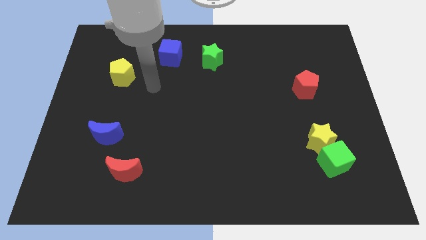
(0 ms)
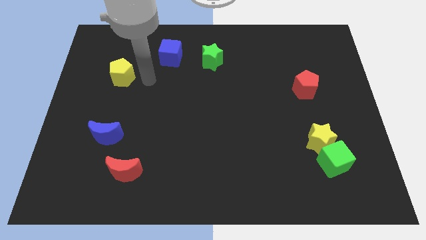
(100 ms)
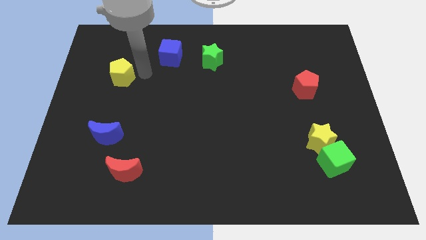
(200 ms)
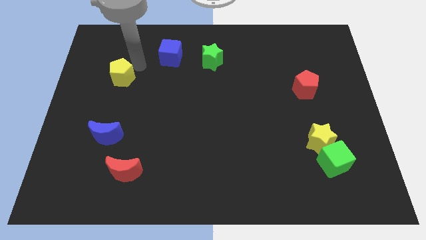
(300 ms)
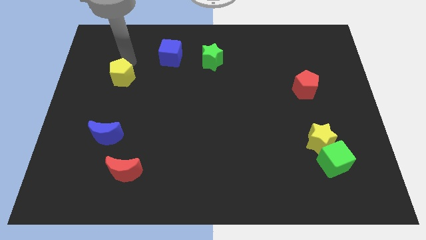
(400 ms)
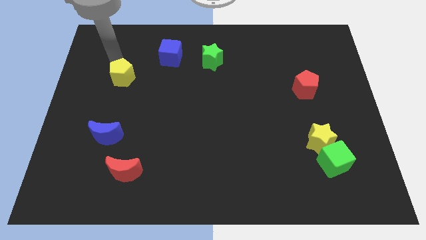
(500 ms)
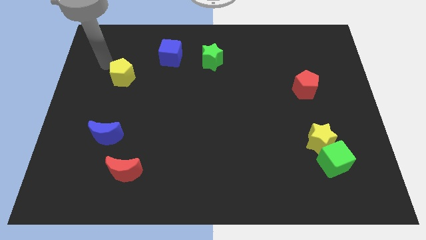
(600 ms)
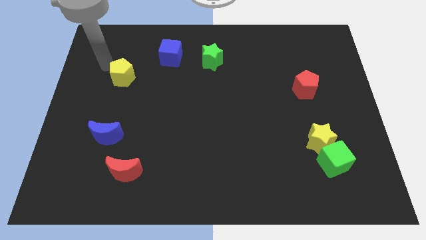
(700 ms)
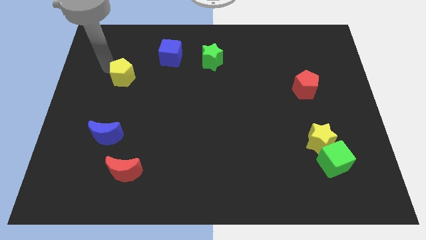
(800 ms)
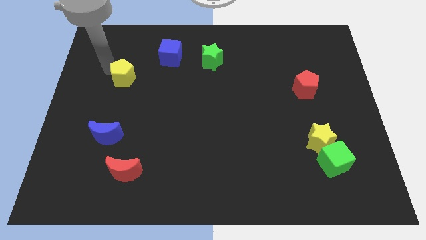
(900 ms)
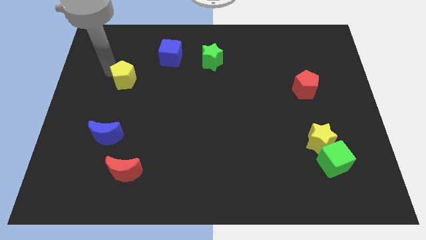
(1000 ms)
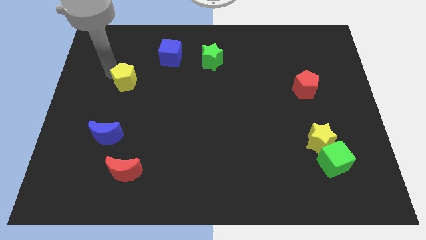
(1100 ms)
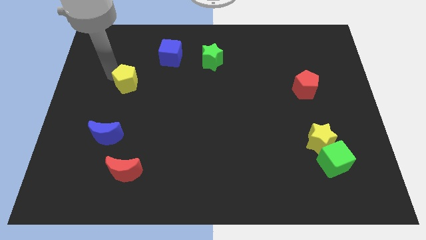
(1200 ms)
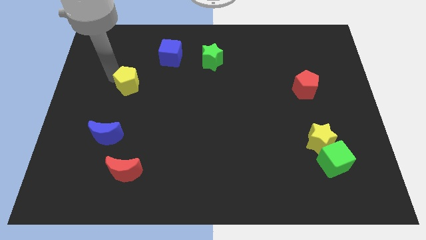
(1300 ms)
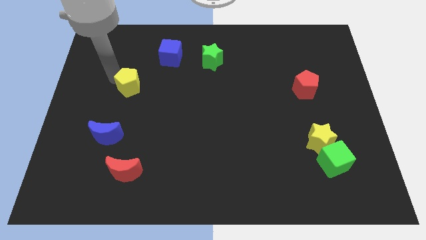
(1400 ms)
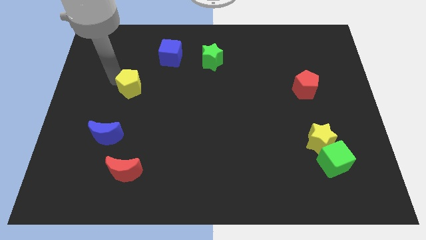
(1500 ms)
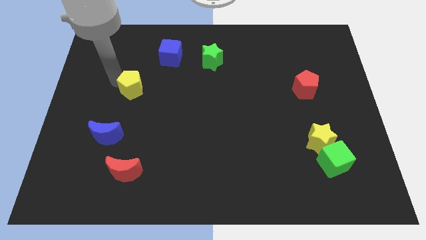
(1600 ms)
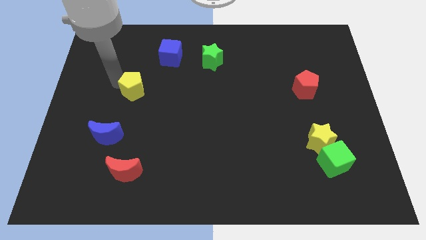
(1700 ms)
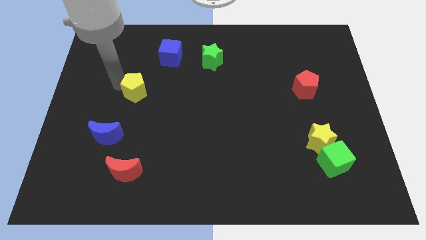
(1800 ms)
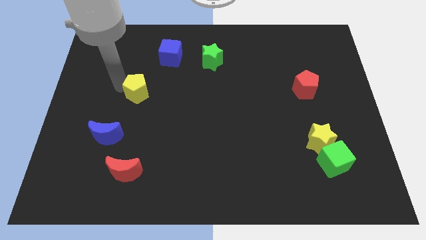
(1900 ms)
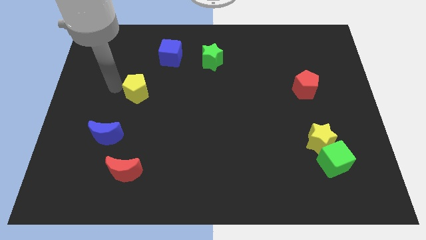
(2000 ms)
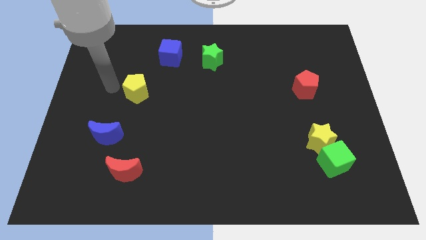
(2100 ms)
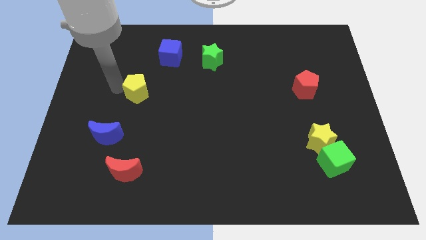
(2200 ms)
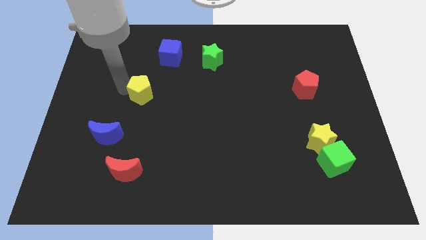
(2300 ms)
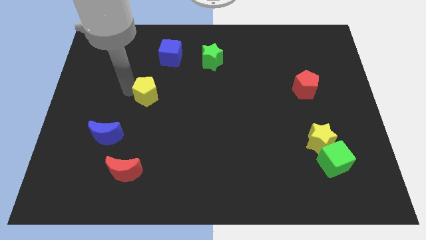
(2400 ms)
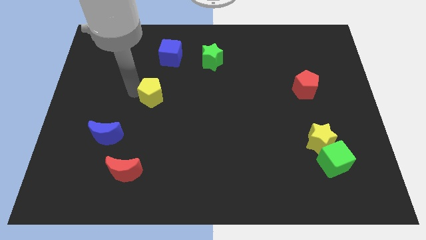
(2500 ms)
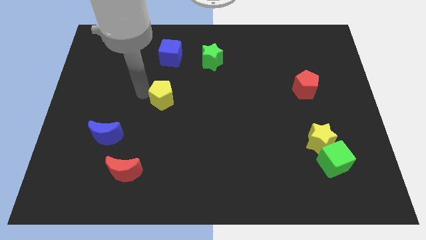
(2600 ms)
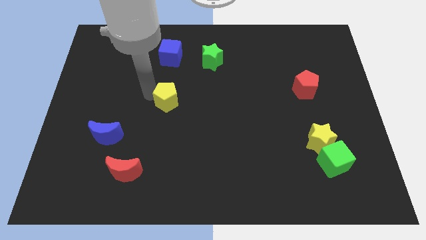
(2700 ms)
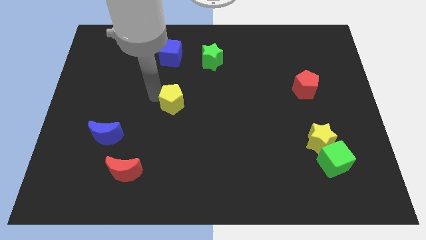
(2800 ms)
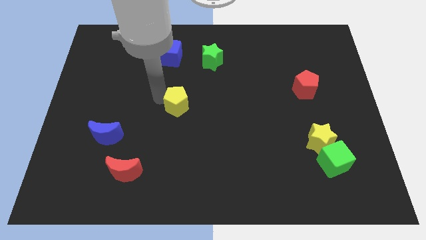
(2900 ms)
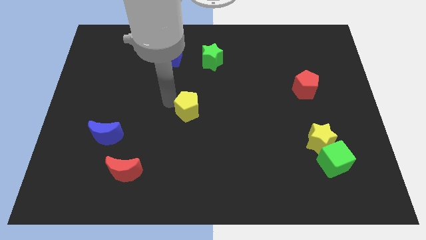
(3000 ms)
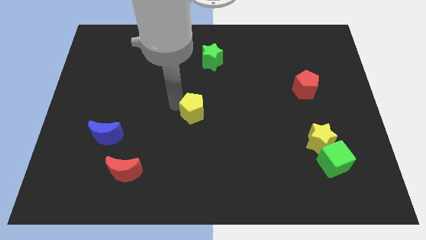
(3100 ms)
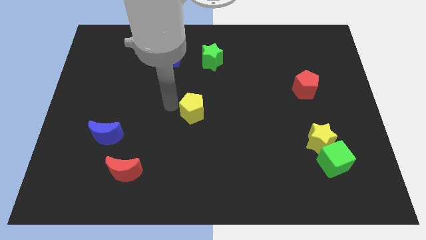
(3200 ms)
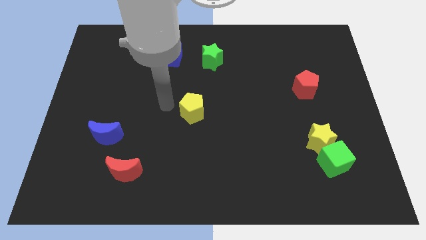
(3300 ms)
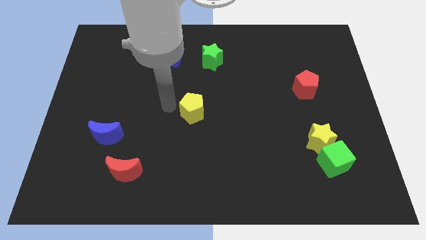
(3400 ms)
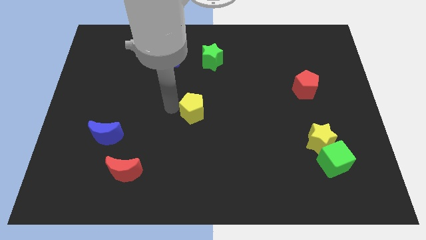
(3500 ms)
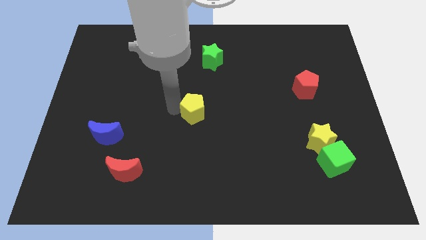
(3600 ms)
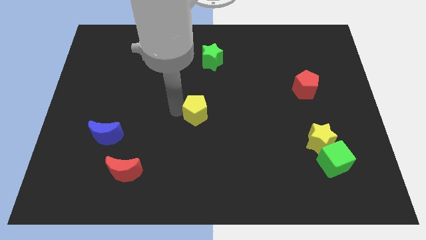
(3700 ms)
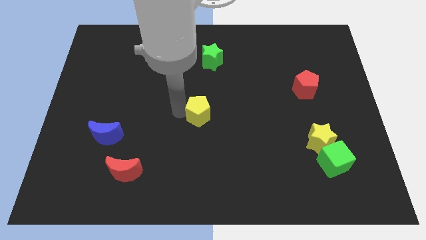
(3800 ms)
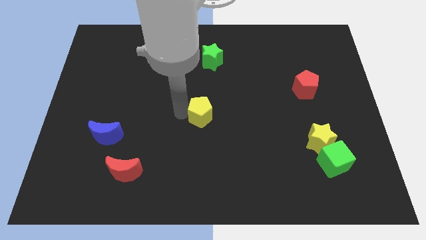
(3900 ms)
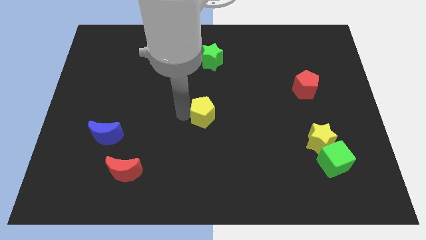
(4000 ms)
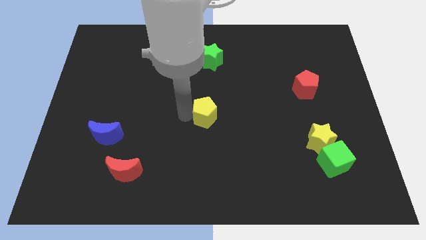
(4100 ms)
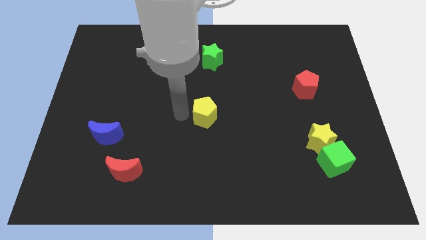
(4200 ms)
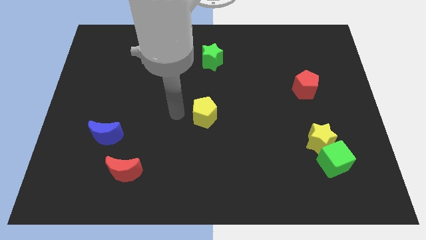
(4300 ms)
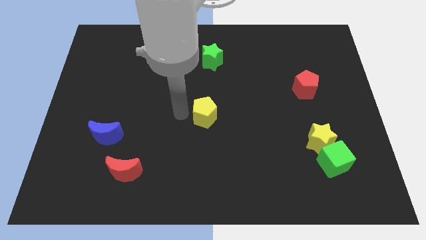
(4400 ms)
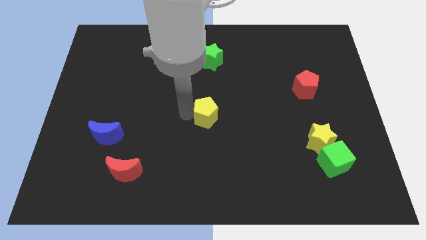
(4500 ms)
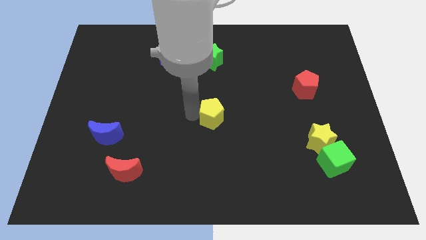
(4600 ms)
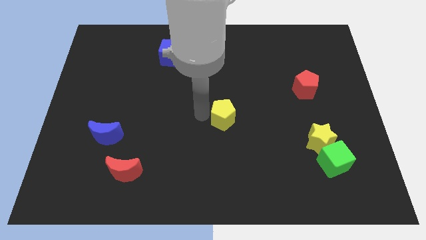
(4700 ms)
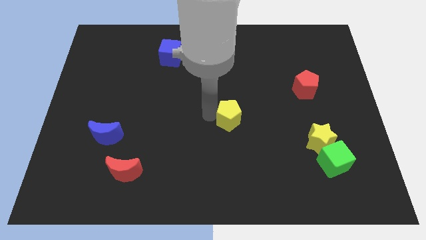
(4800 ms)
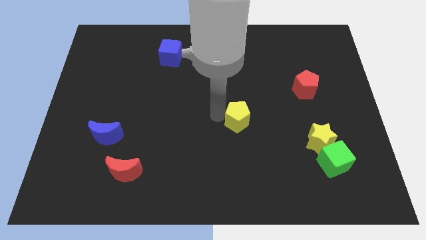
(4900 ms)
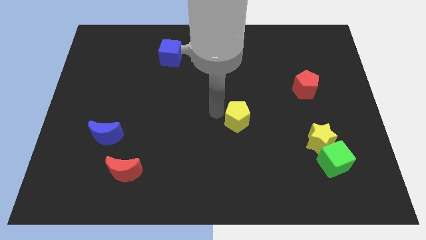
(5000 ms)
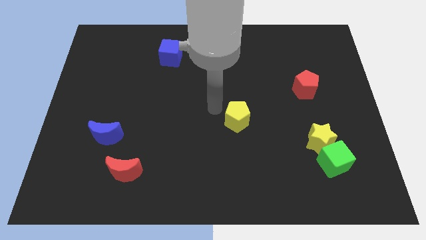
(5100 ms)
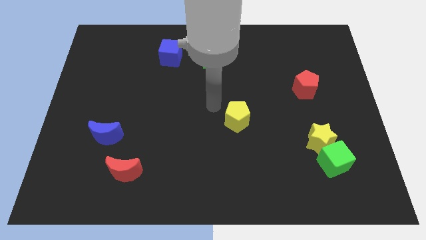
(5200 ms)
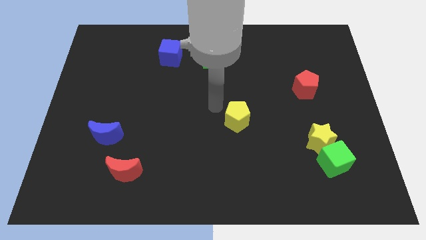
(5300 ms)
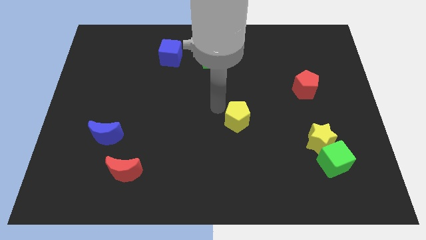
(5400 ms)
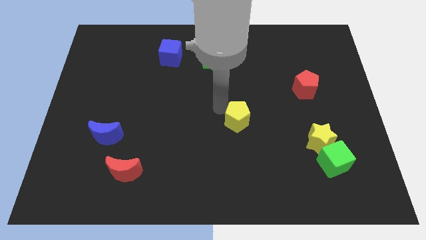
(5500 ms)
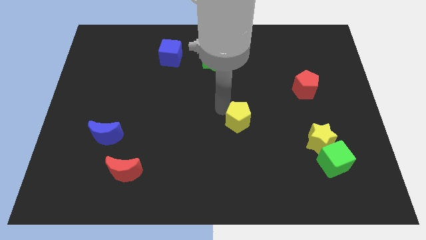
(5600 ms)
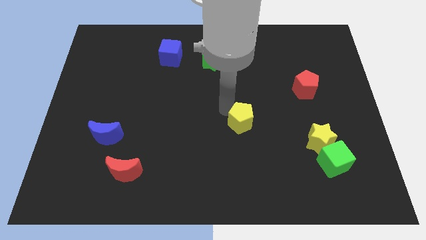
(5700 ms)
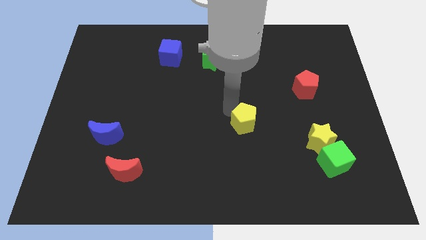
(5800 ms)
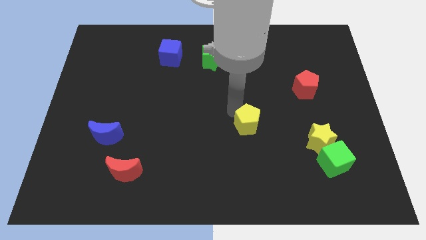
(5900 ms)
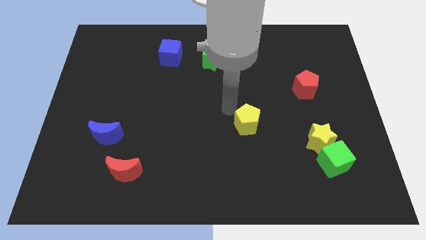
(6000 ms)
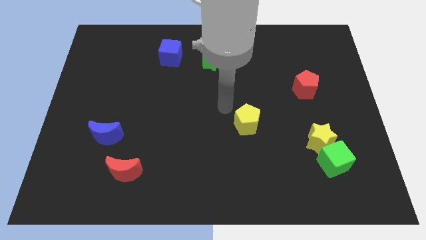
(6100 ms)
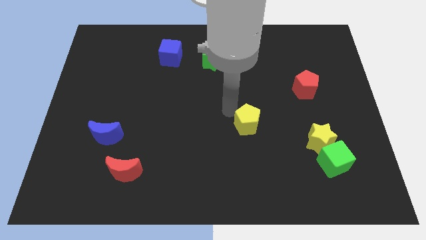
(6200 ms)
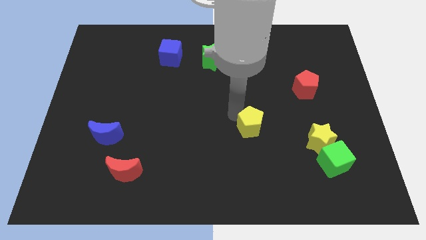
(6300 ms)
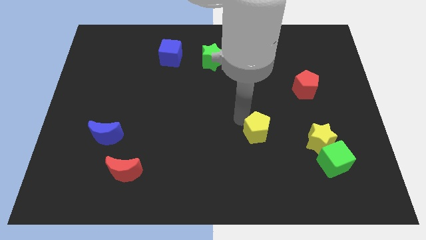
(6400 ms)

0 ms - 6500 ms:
move the yellow pentagon to the left side of the yellow star
